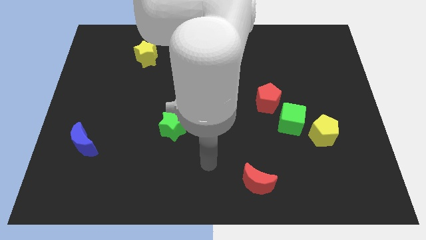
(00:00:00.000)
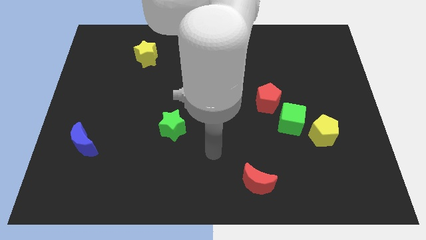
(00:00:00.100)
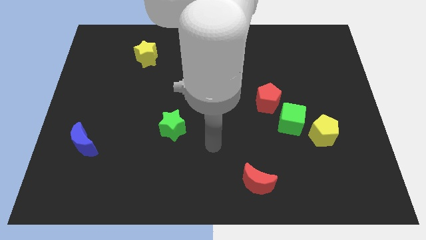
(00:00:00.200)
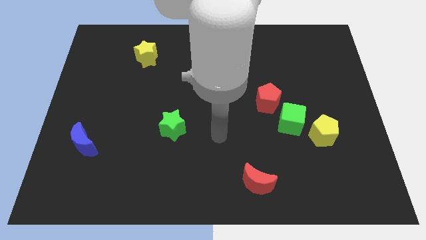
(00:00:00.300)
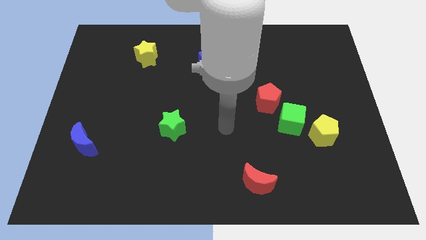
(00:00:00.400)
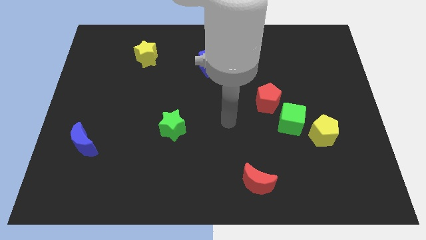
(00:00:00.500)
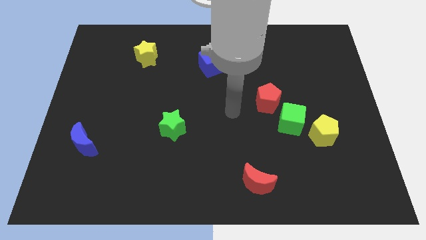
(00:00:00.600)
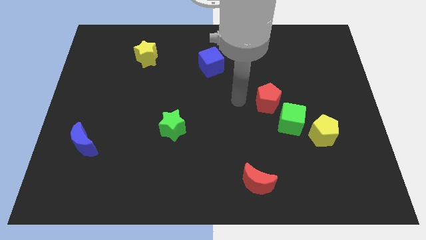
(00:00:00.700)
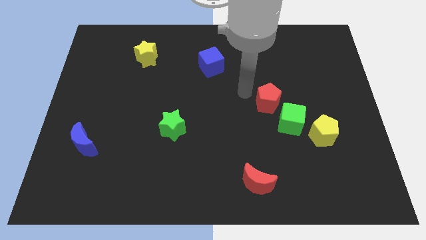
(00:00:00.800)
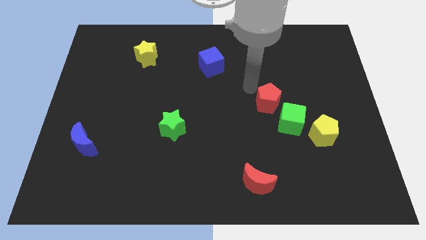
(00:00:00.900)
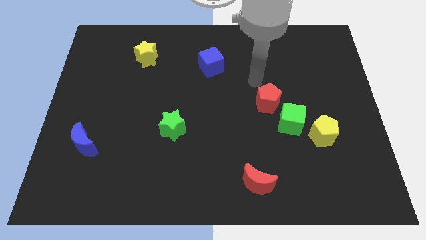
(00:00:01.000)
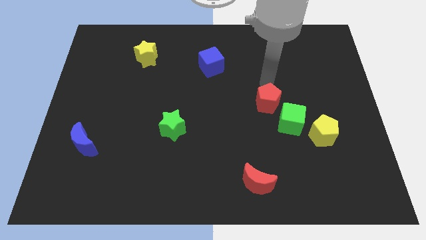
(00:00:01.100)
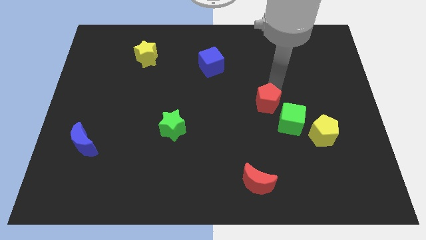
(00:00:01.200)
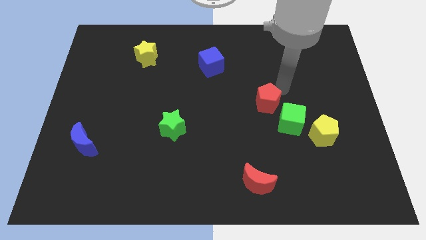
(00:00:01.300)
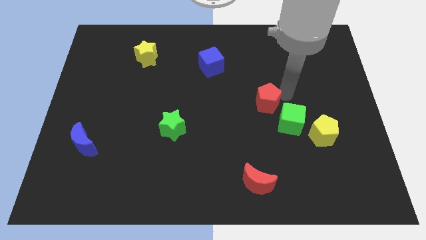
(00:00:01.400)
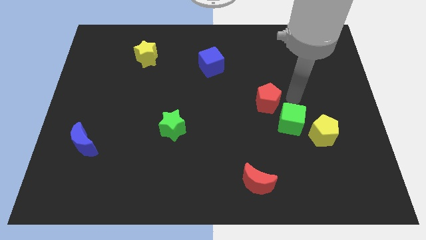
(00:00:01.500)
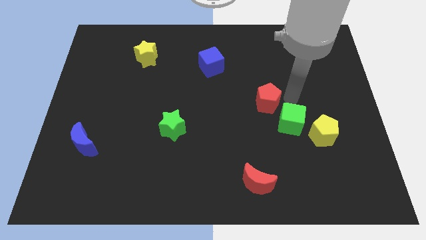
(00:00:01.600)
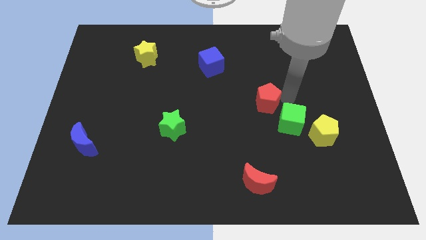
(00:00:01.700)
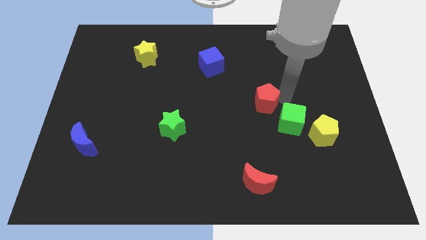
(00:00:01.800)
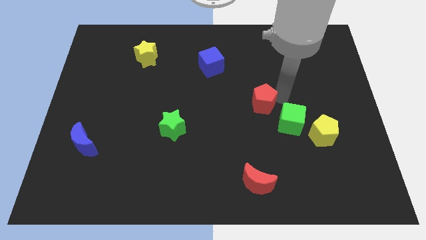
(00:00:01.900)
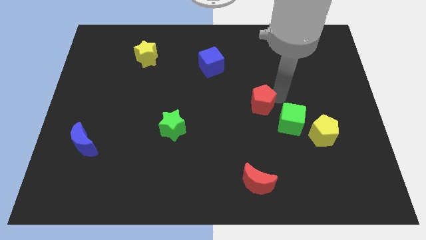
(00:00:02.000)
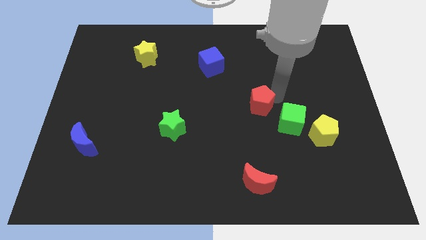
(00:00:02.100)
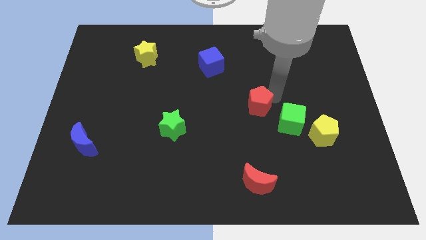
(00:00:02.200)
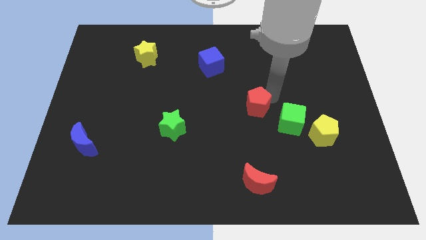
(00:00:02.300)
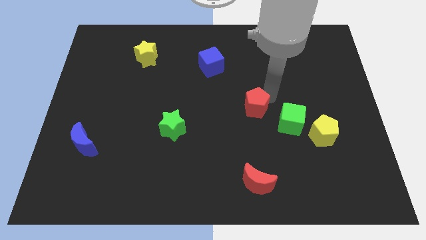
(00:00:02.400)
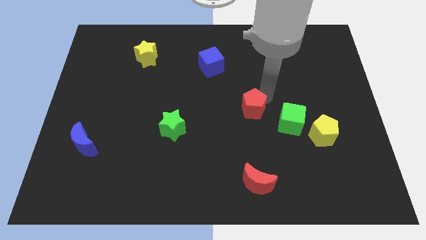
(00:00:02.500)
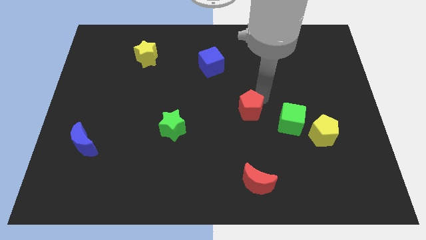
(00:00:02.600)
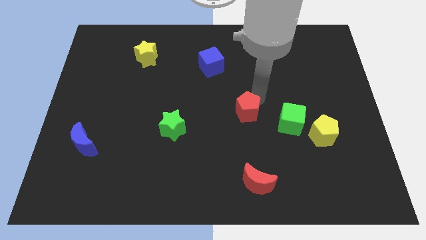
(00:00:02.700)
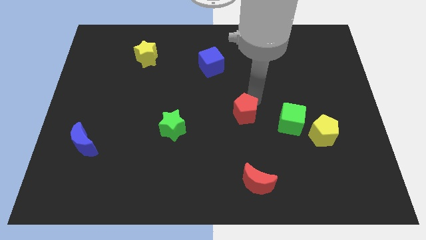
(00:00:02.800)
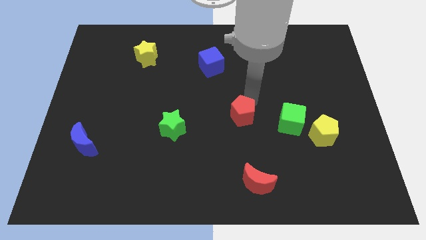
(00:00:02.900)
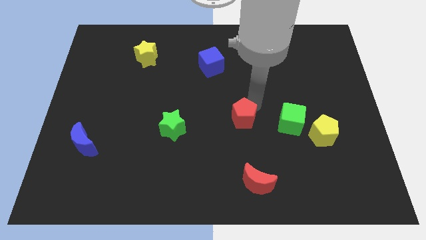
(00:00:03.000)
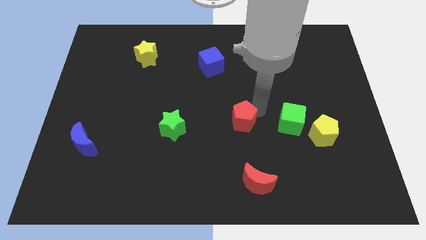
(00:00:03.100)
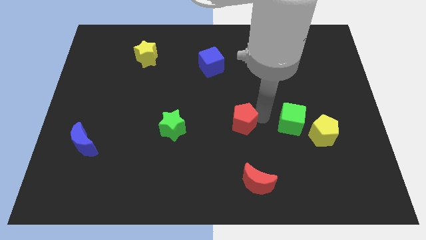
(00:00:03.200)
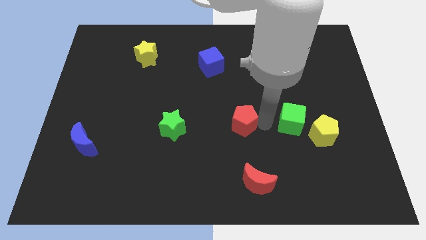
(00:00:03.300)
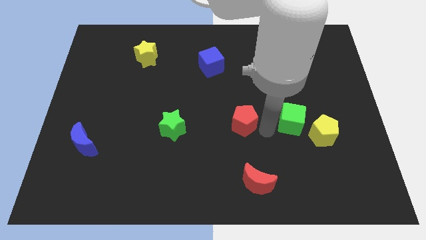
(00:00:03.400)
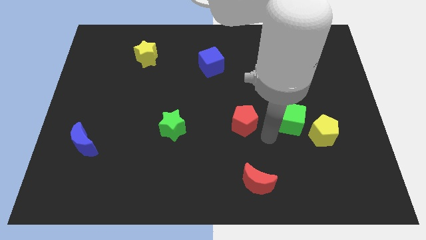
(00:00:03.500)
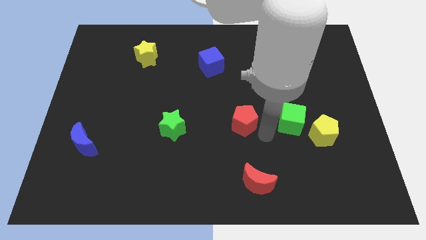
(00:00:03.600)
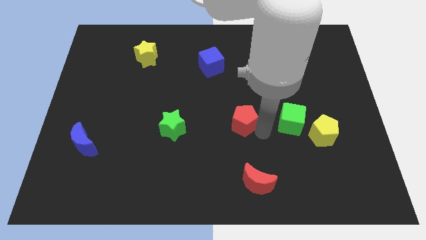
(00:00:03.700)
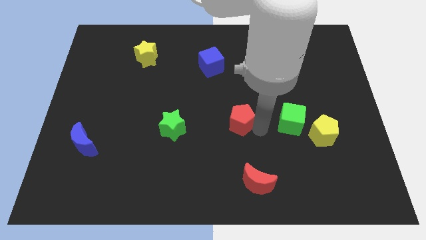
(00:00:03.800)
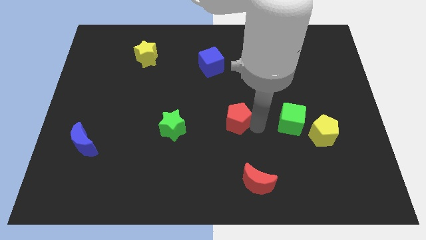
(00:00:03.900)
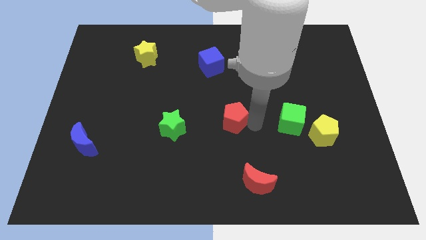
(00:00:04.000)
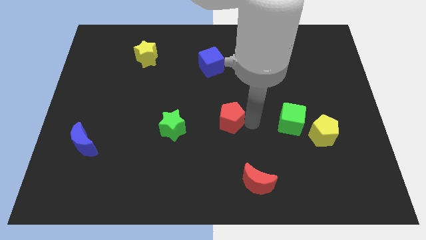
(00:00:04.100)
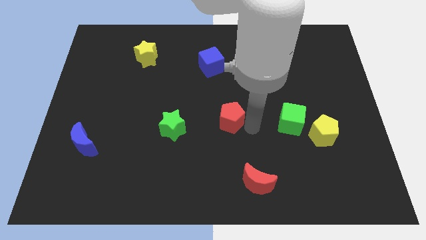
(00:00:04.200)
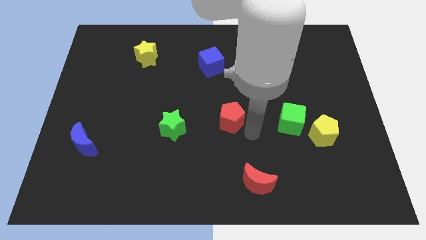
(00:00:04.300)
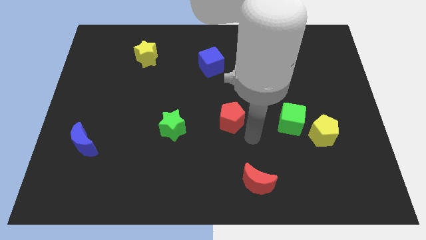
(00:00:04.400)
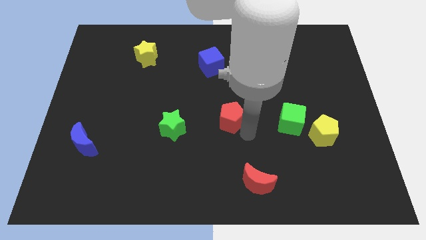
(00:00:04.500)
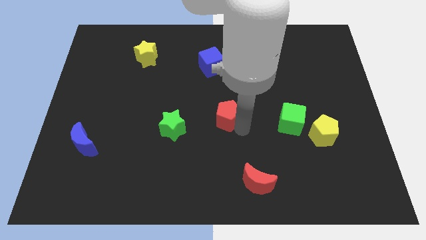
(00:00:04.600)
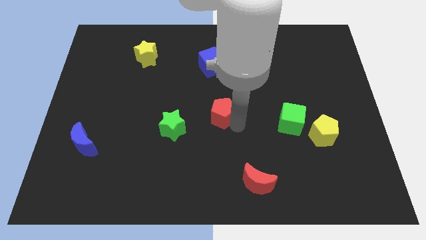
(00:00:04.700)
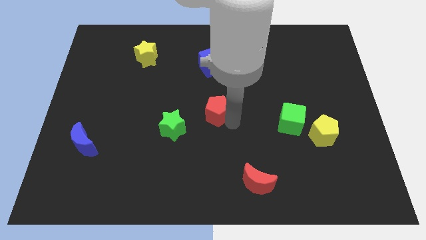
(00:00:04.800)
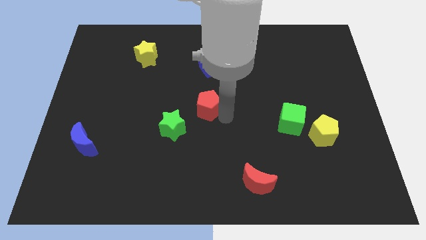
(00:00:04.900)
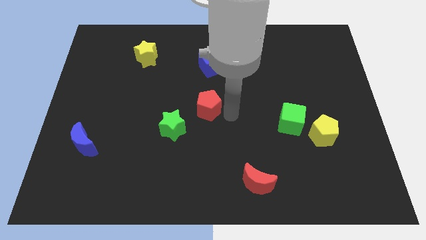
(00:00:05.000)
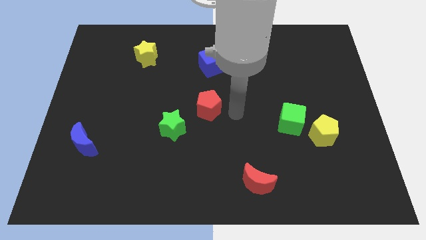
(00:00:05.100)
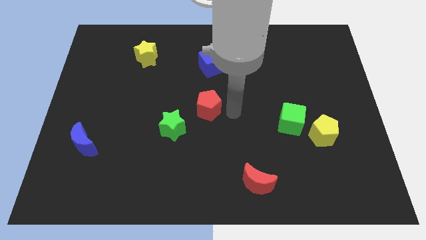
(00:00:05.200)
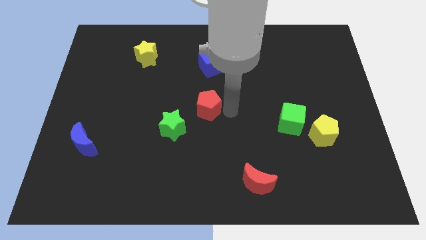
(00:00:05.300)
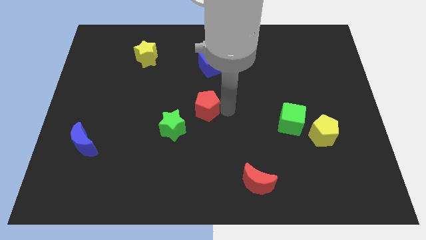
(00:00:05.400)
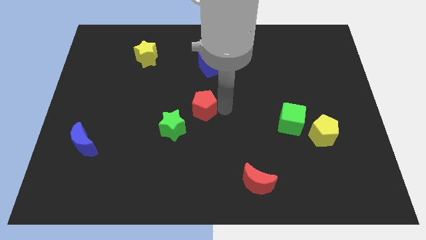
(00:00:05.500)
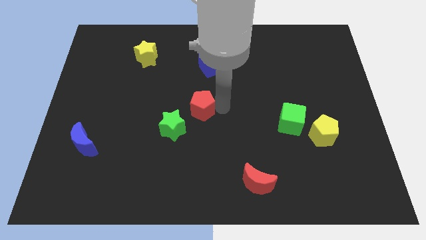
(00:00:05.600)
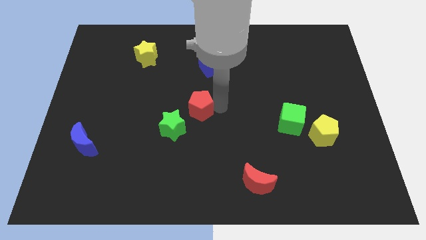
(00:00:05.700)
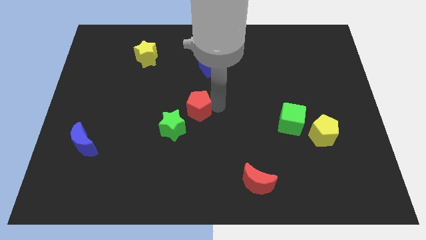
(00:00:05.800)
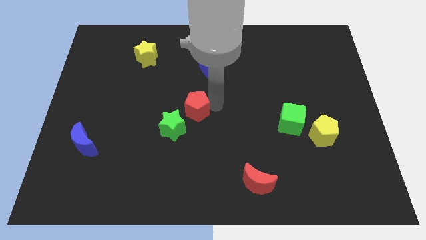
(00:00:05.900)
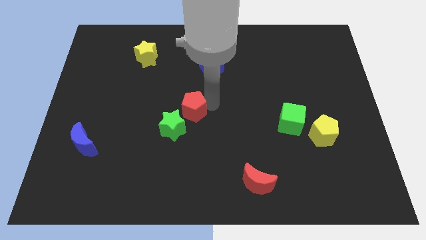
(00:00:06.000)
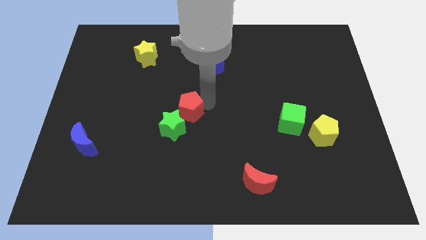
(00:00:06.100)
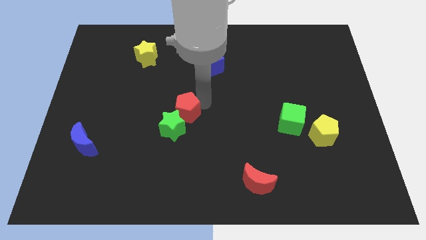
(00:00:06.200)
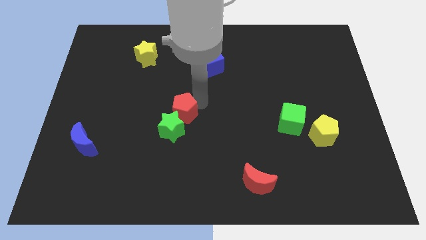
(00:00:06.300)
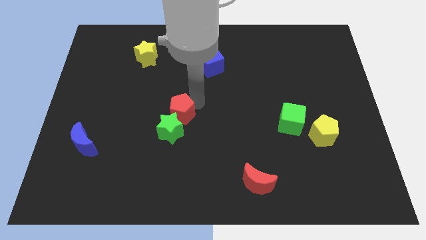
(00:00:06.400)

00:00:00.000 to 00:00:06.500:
move the red pentagon left

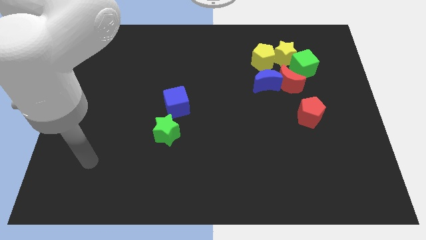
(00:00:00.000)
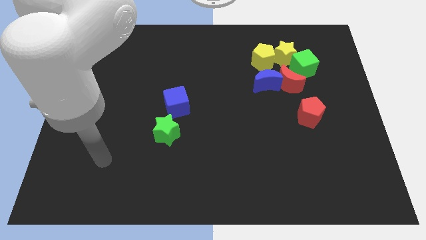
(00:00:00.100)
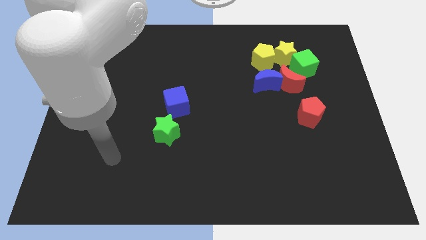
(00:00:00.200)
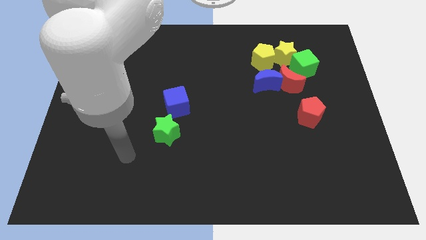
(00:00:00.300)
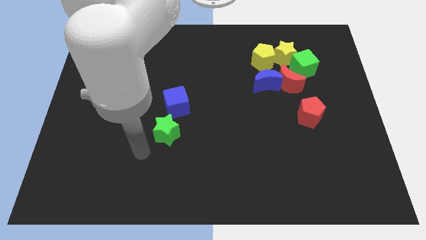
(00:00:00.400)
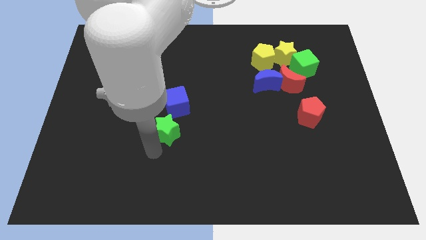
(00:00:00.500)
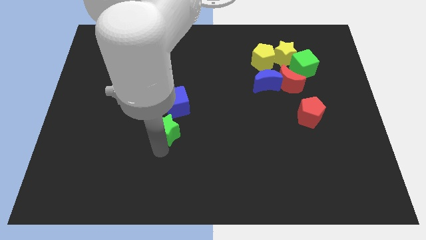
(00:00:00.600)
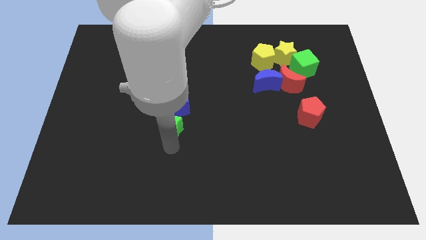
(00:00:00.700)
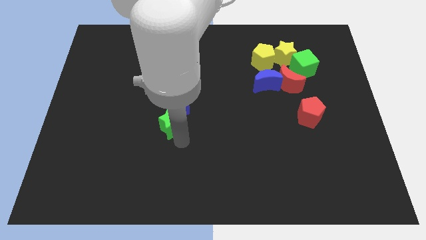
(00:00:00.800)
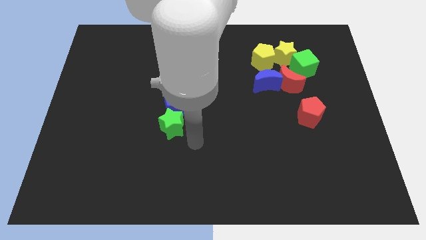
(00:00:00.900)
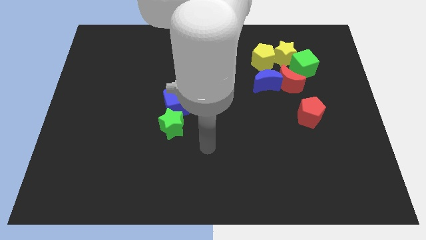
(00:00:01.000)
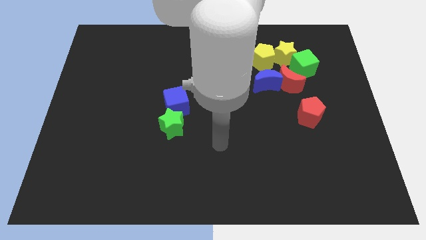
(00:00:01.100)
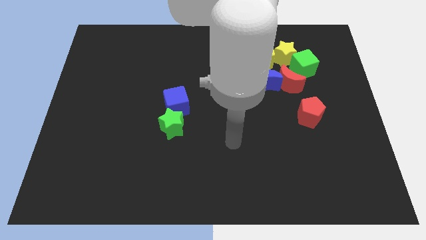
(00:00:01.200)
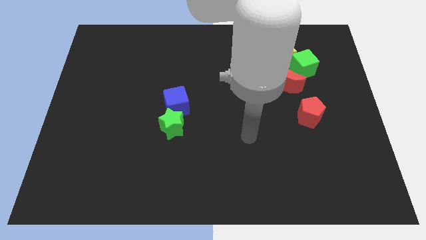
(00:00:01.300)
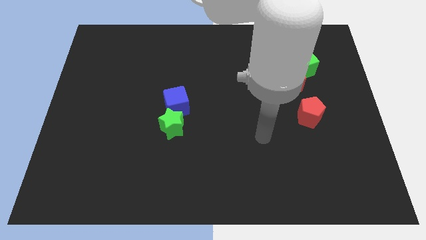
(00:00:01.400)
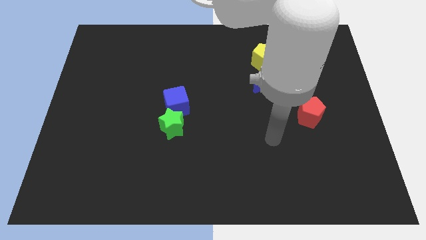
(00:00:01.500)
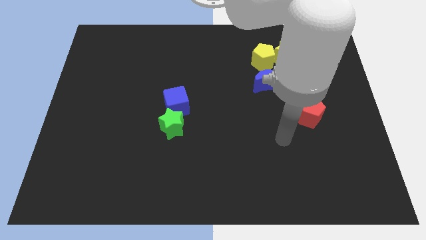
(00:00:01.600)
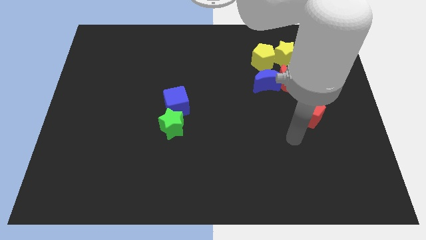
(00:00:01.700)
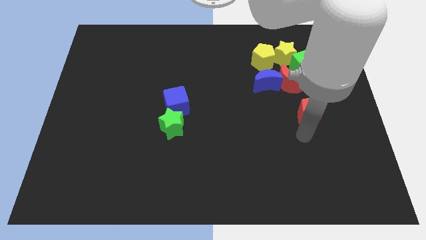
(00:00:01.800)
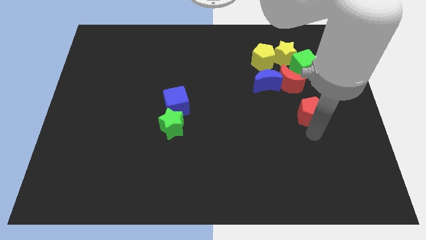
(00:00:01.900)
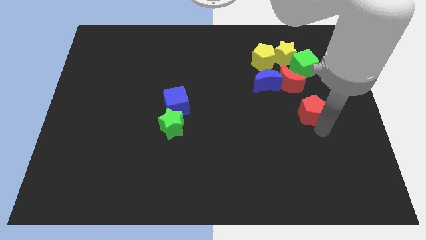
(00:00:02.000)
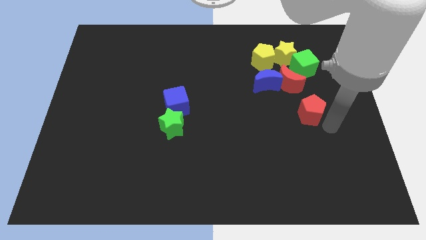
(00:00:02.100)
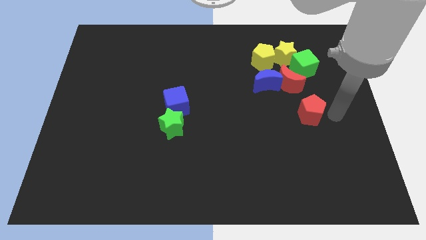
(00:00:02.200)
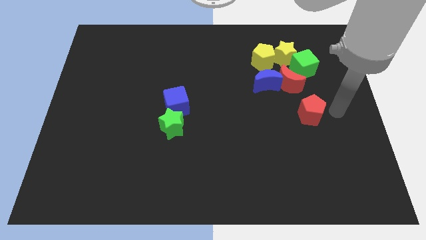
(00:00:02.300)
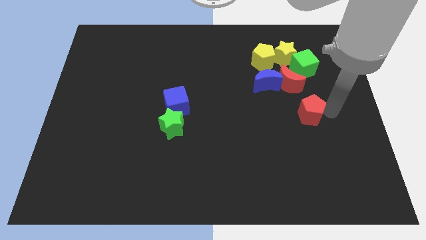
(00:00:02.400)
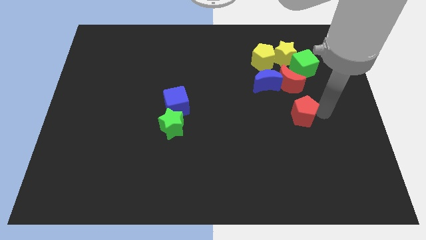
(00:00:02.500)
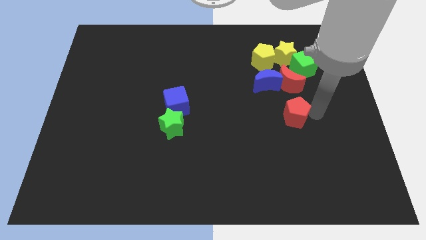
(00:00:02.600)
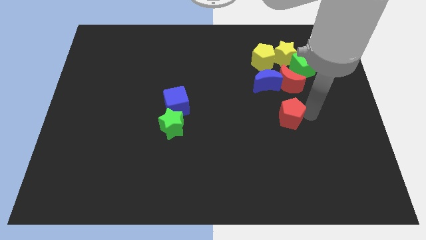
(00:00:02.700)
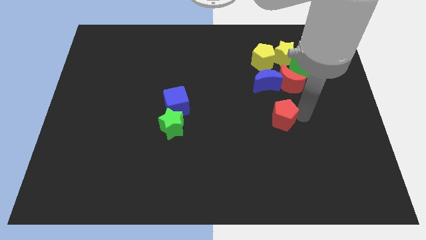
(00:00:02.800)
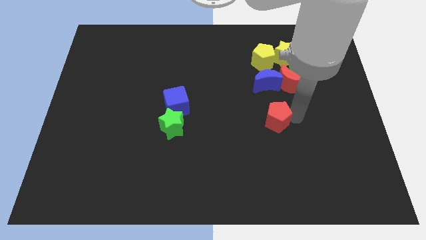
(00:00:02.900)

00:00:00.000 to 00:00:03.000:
slide the red pentagon left a little bit
